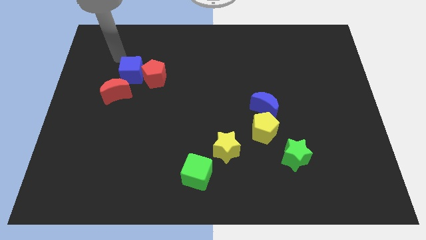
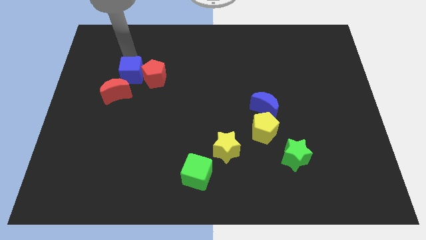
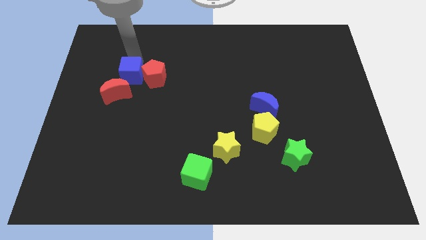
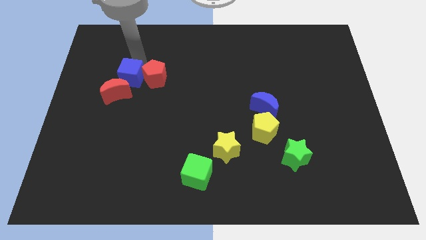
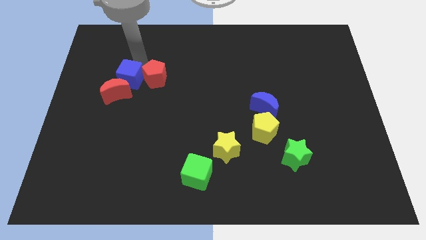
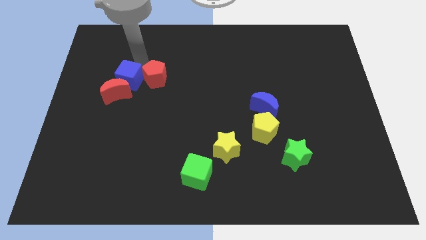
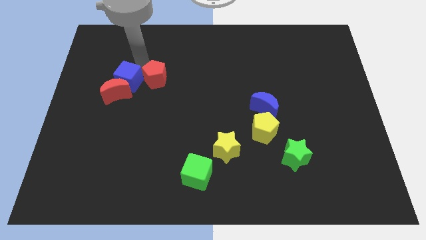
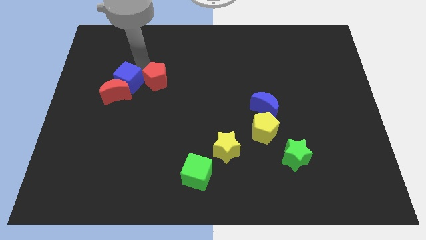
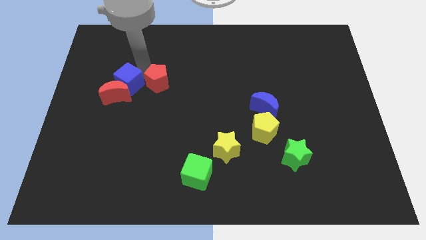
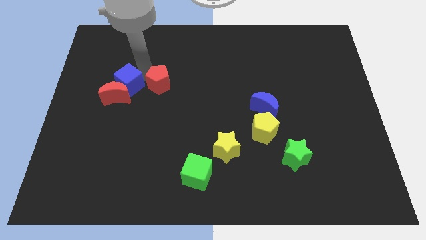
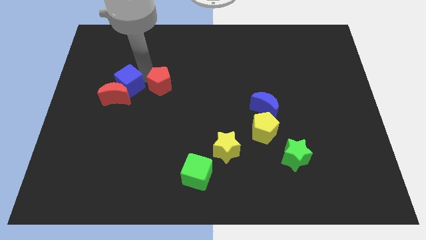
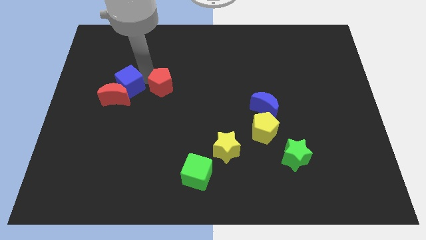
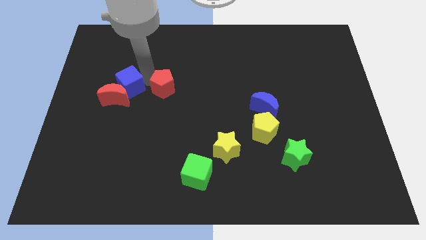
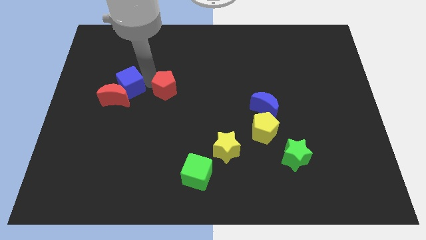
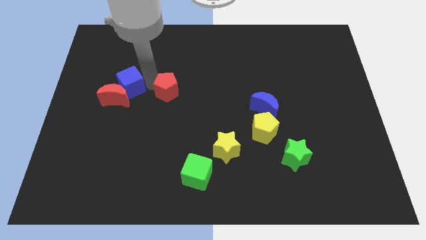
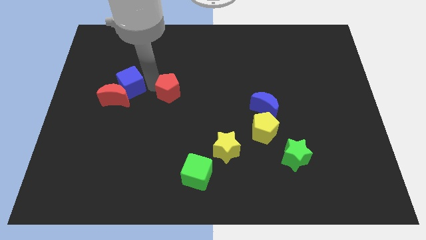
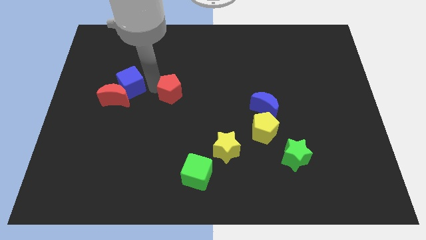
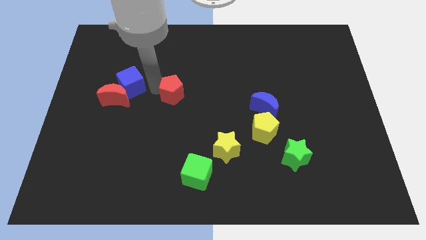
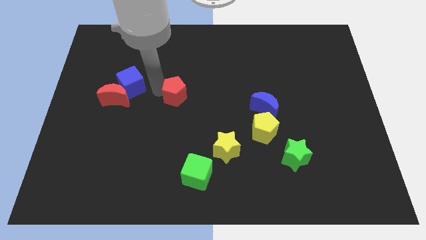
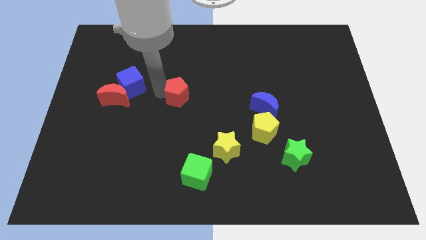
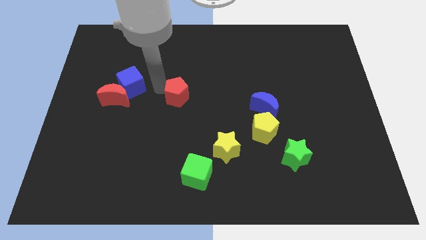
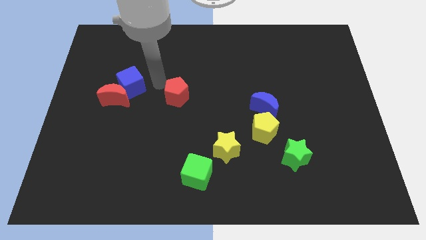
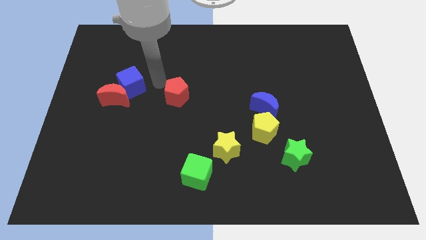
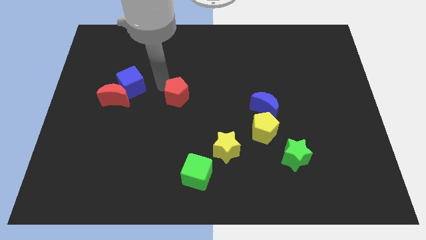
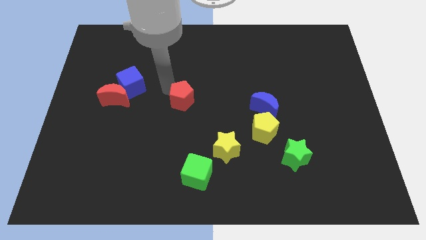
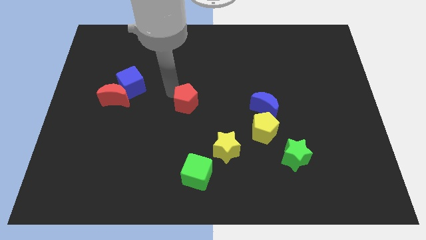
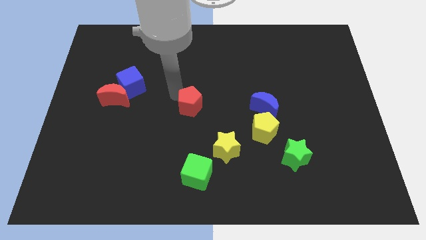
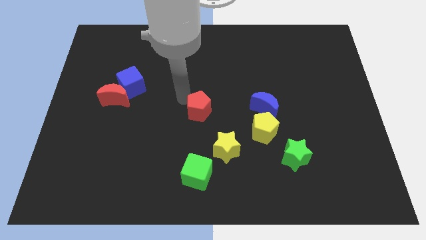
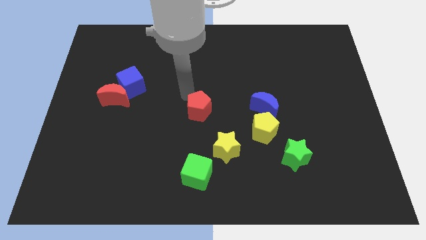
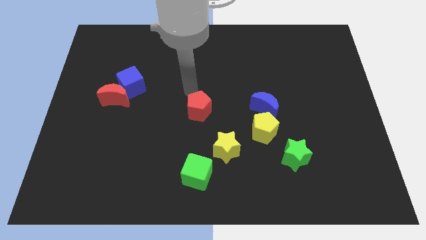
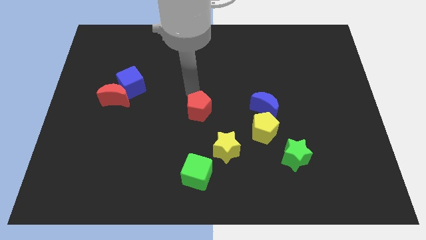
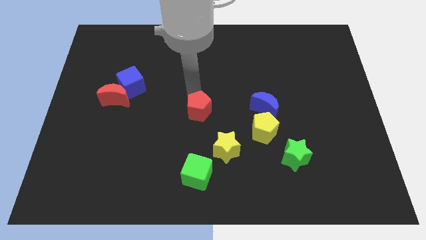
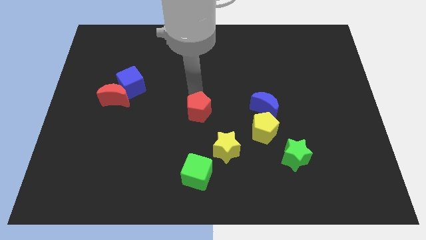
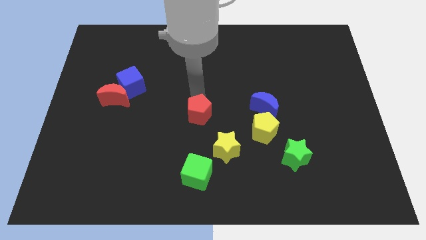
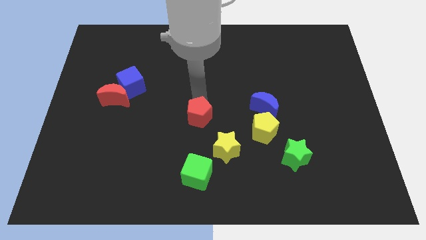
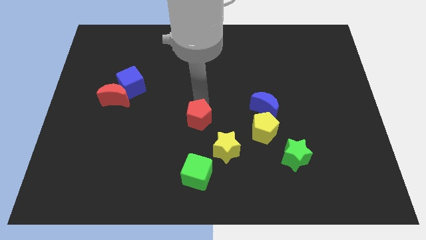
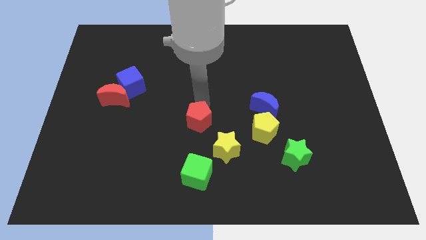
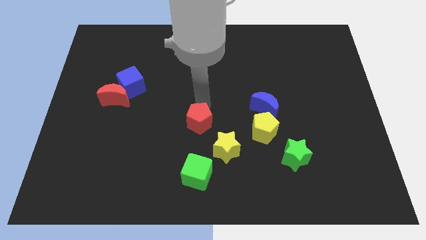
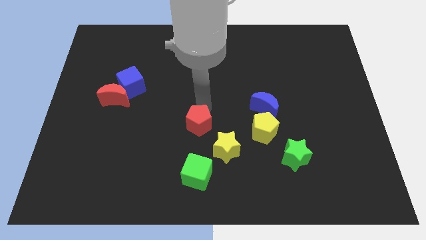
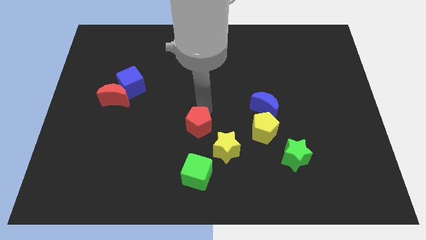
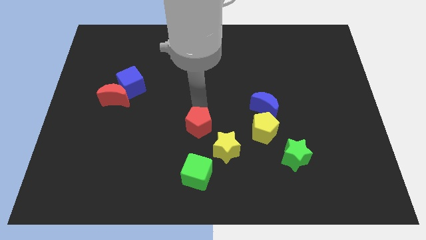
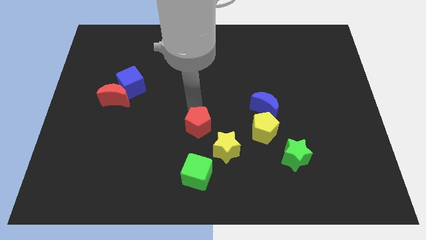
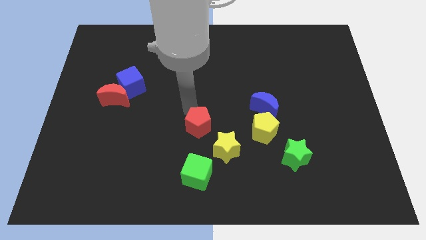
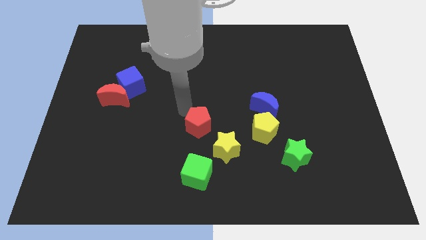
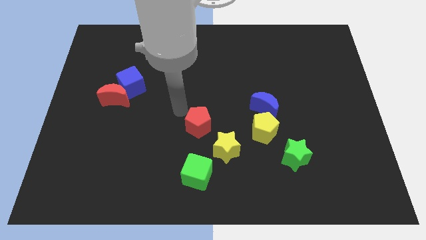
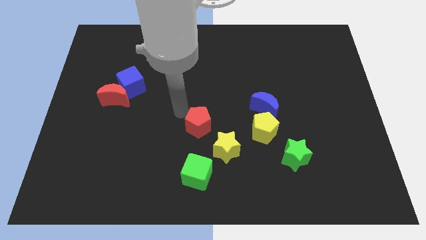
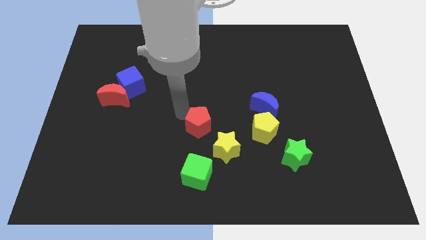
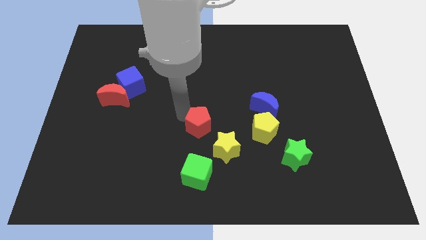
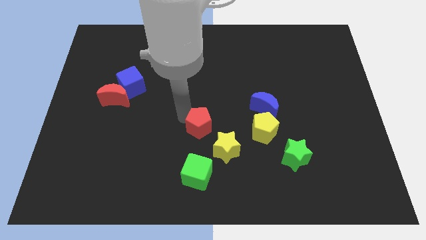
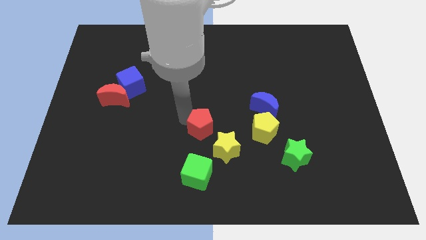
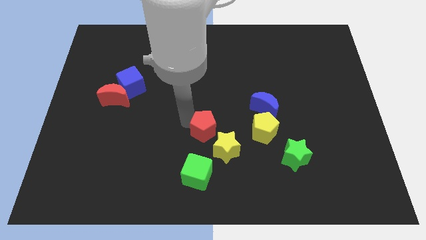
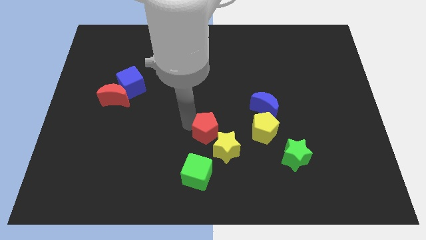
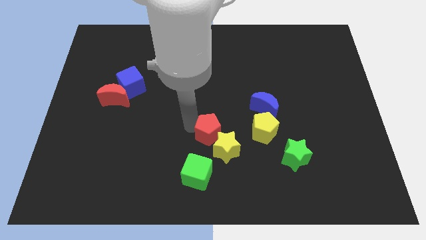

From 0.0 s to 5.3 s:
put the red pentagon close to the yellow star

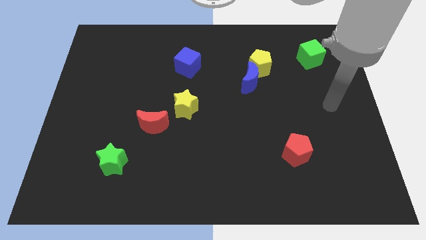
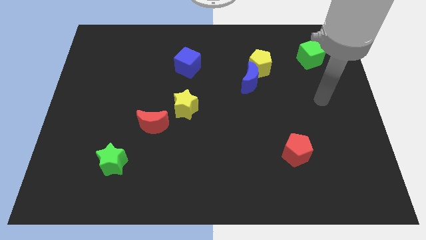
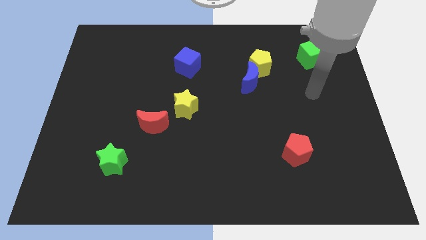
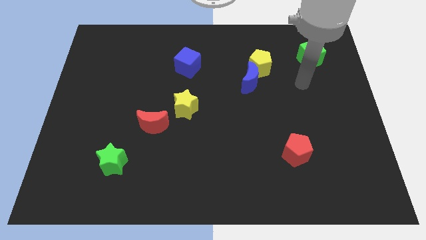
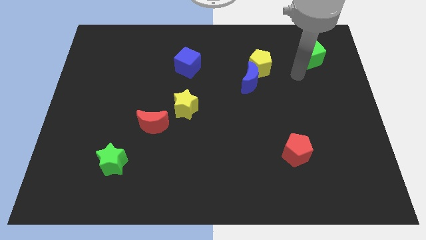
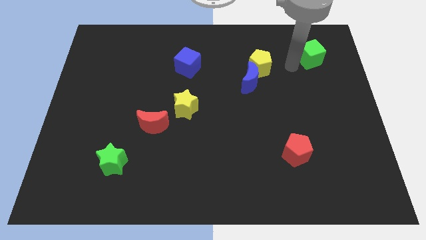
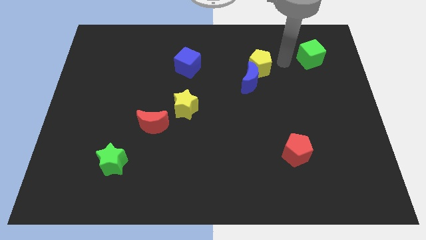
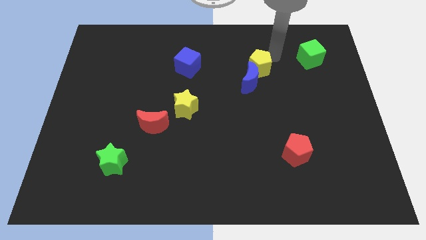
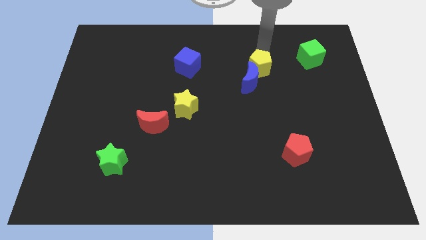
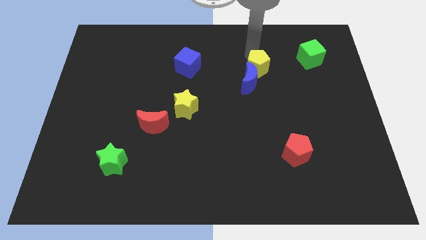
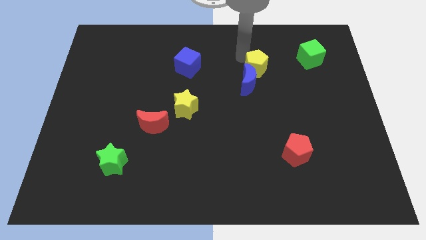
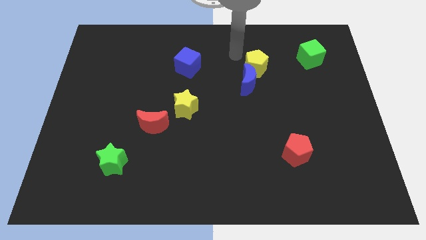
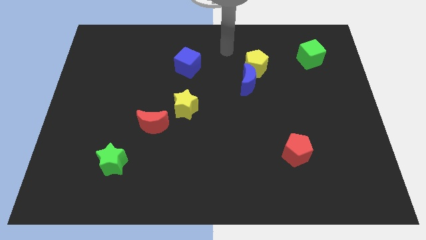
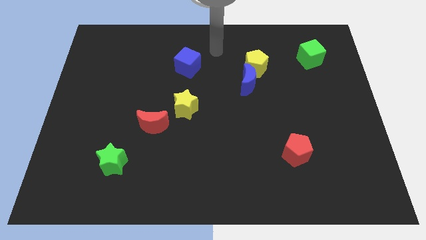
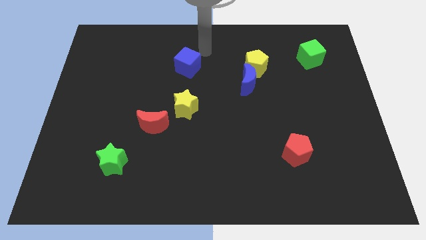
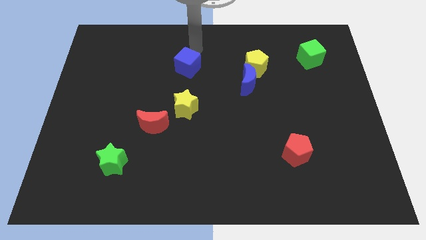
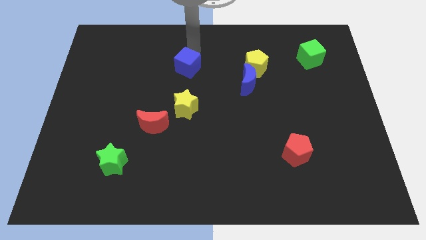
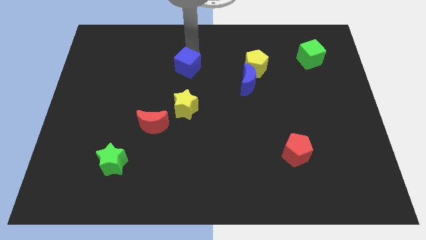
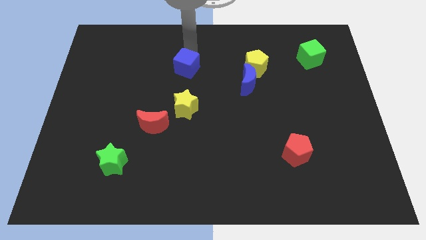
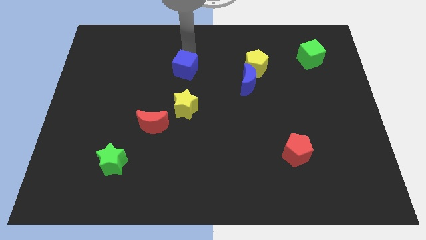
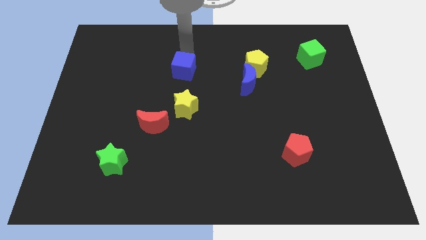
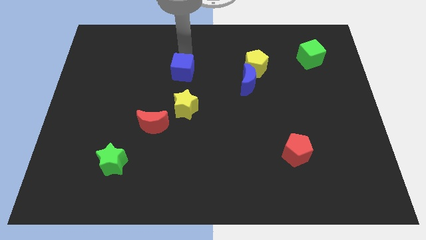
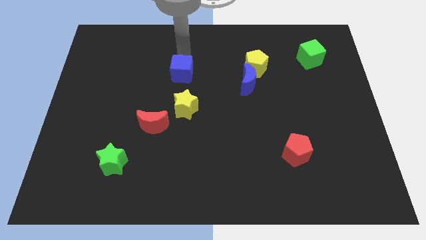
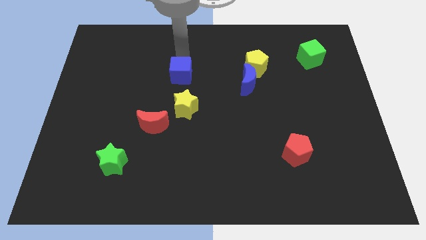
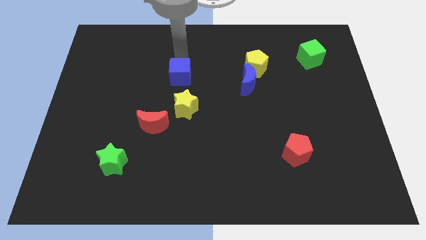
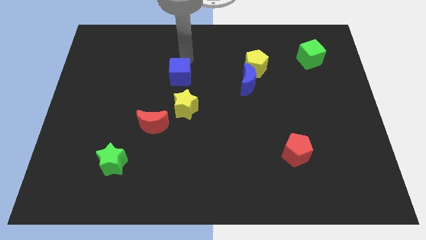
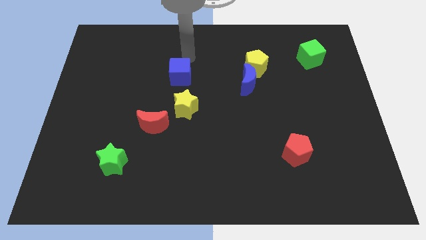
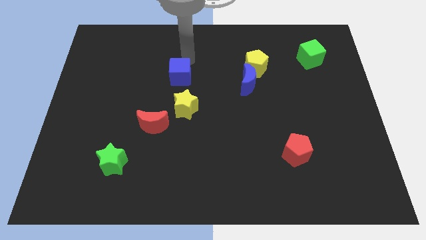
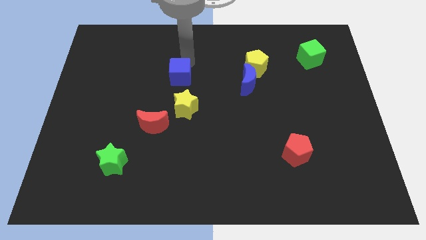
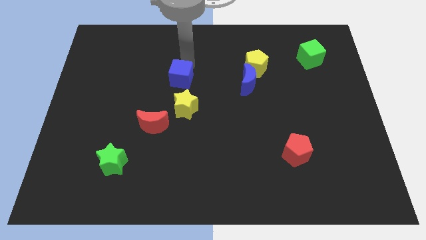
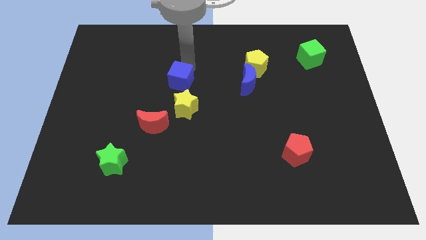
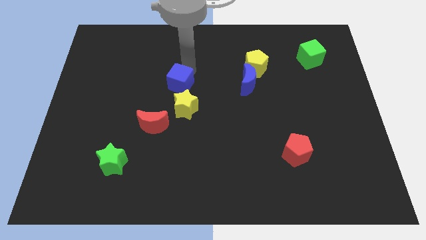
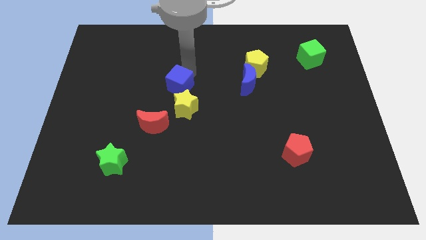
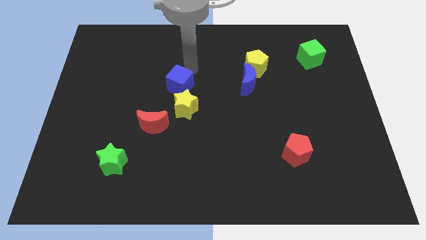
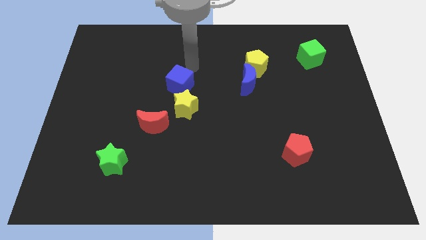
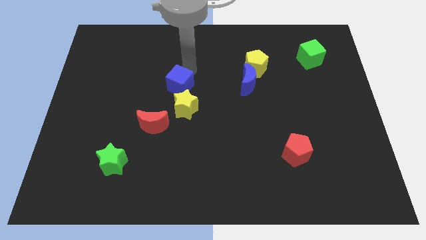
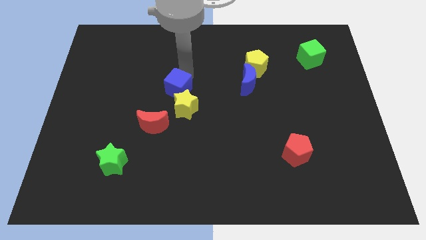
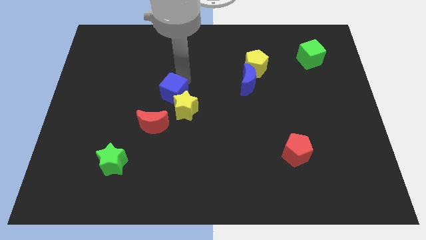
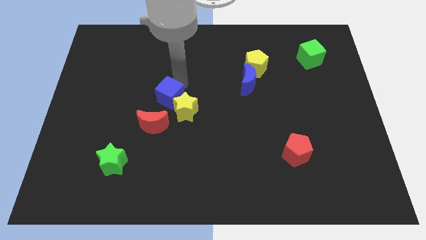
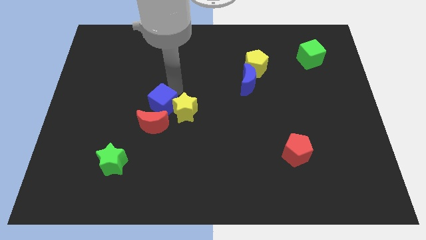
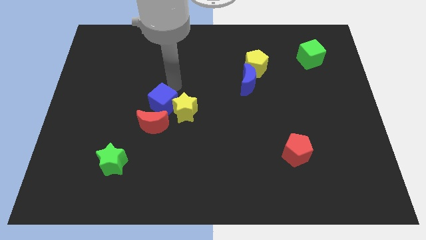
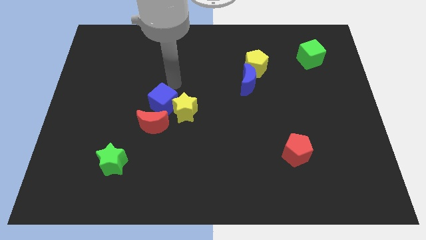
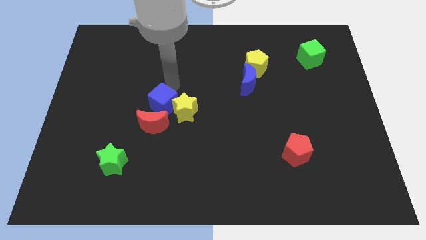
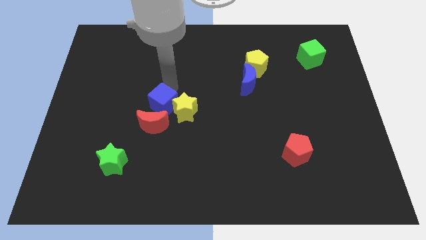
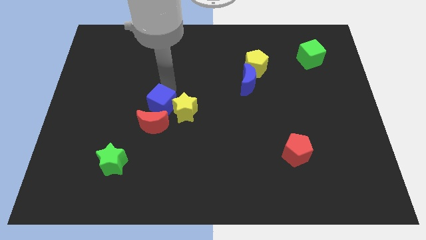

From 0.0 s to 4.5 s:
move the blue cube close to the red moon
